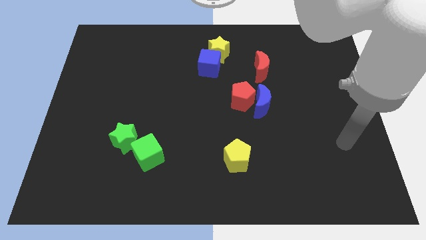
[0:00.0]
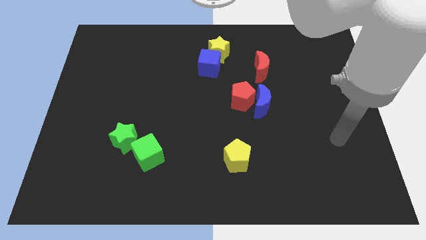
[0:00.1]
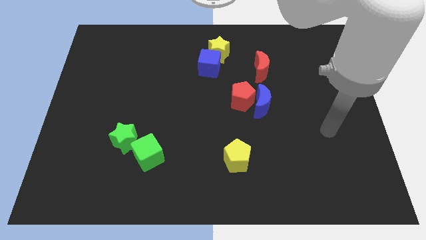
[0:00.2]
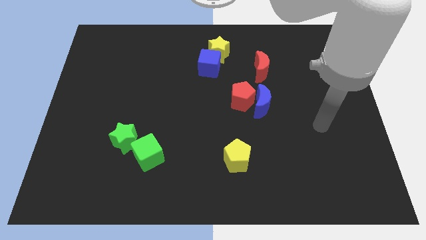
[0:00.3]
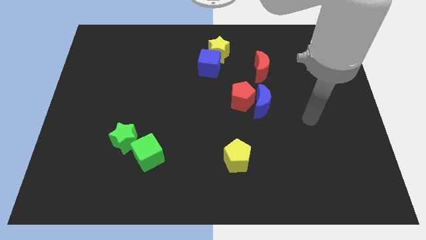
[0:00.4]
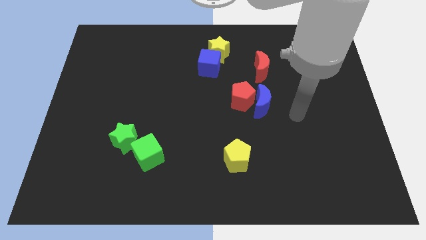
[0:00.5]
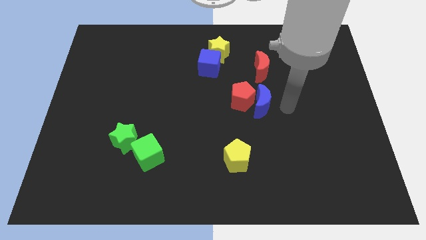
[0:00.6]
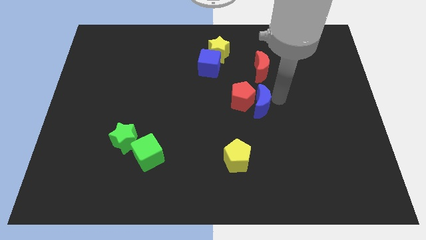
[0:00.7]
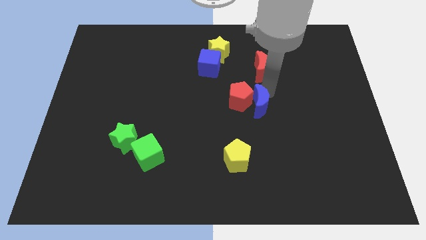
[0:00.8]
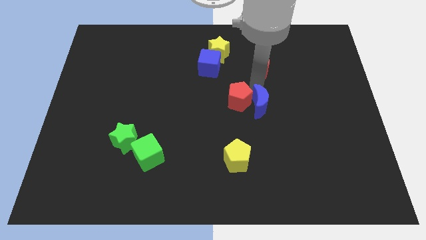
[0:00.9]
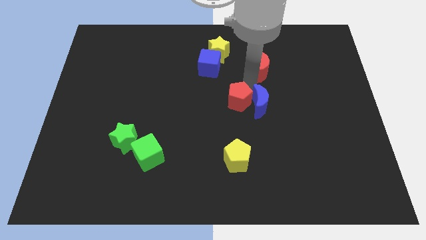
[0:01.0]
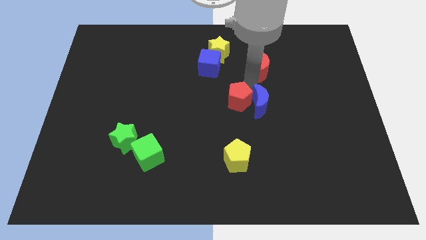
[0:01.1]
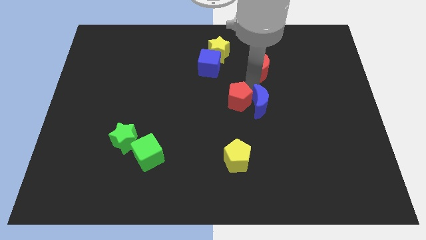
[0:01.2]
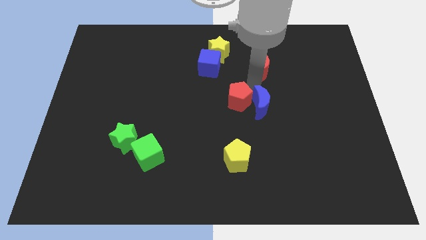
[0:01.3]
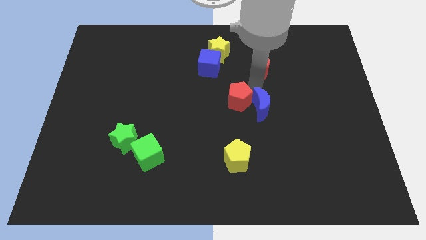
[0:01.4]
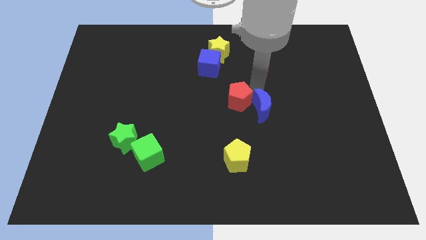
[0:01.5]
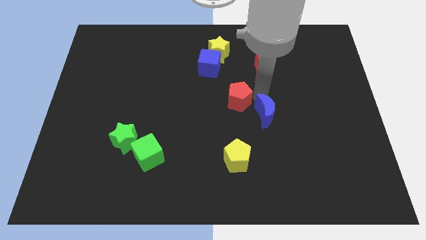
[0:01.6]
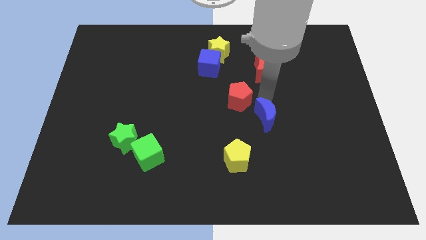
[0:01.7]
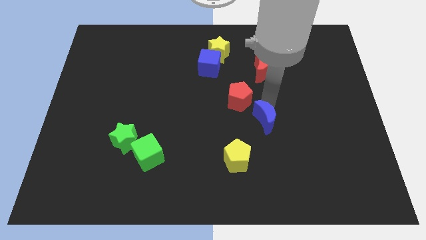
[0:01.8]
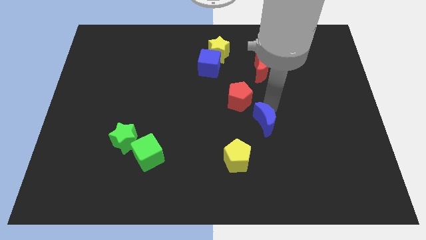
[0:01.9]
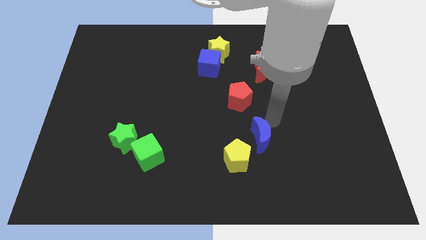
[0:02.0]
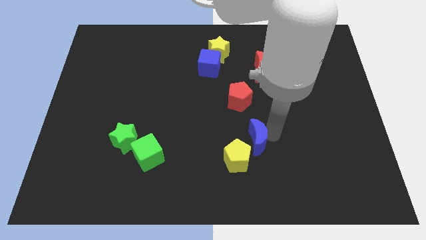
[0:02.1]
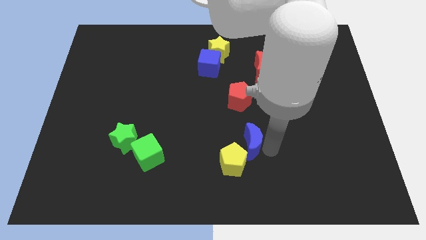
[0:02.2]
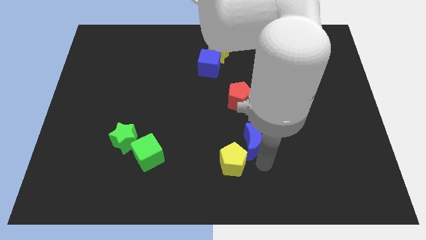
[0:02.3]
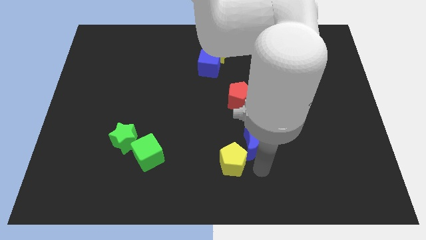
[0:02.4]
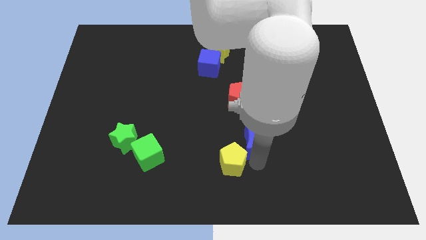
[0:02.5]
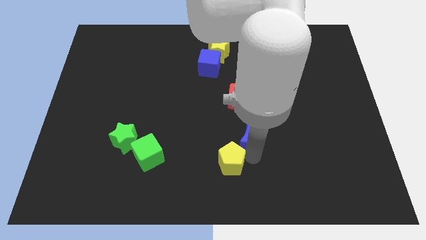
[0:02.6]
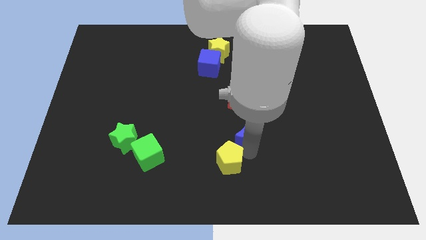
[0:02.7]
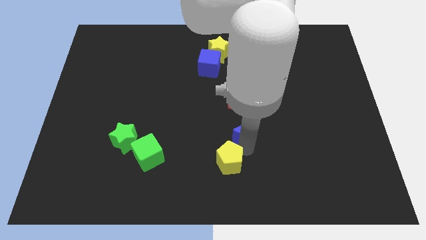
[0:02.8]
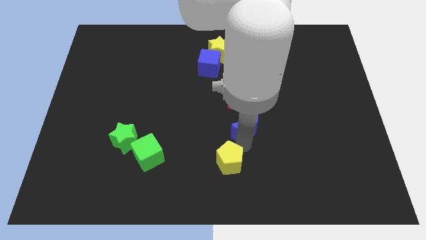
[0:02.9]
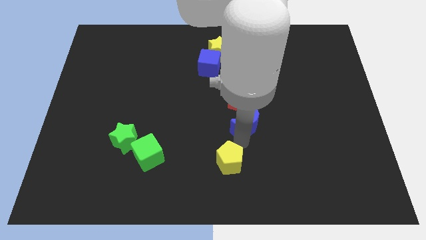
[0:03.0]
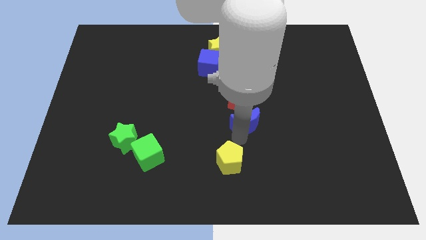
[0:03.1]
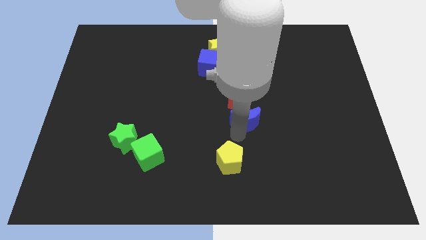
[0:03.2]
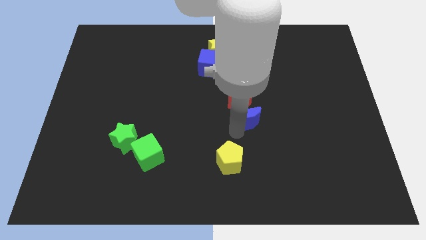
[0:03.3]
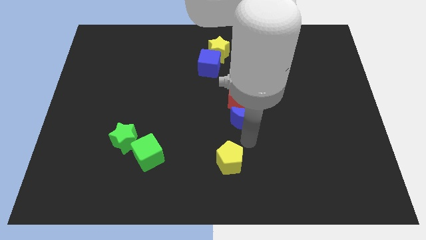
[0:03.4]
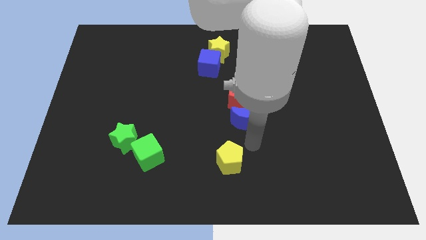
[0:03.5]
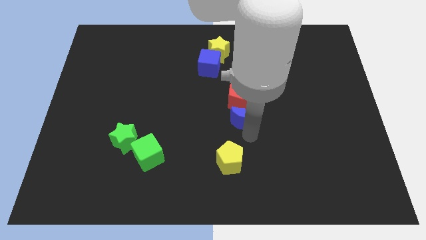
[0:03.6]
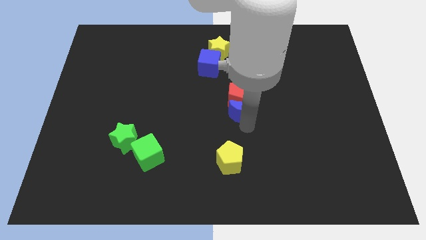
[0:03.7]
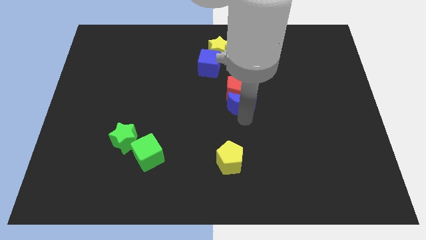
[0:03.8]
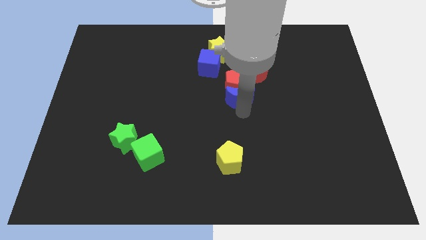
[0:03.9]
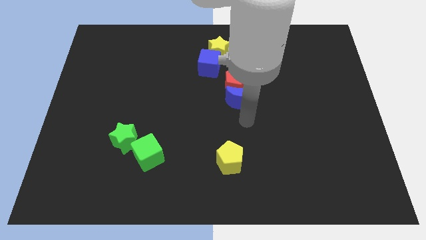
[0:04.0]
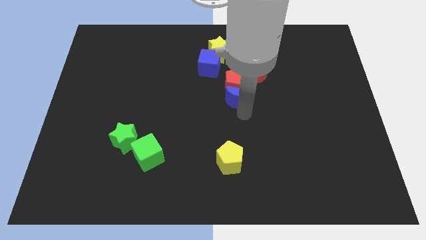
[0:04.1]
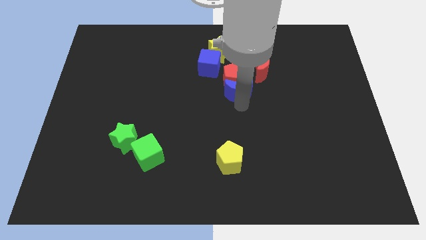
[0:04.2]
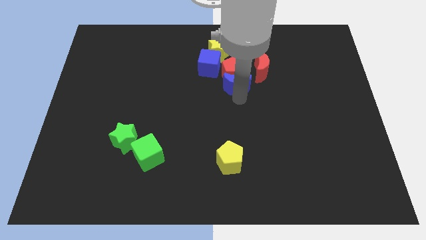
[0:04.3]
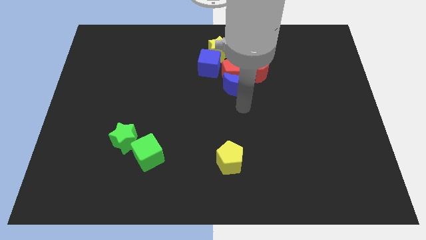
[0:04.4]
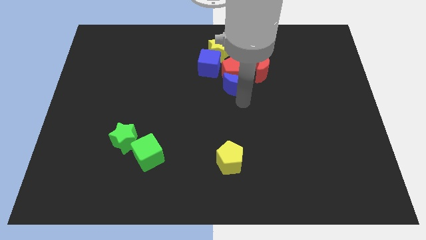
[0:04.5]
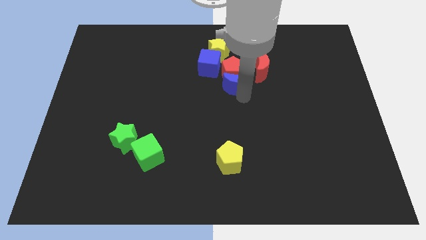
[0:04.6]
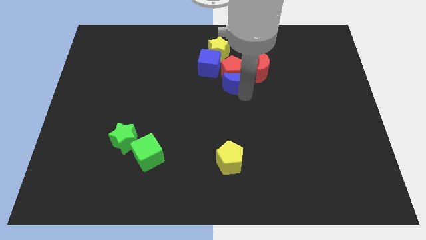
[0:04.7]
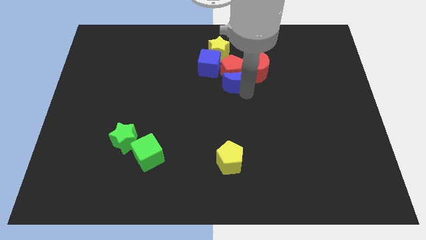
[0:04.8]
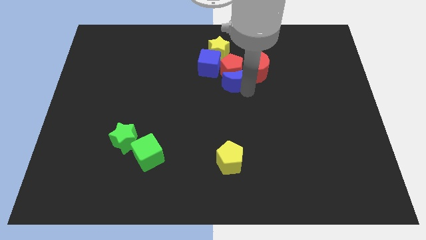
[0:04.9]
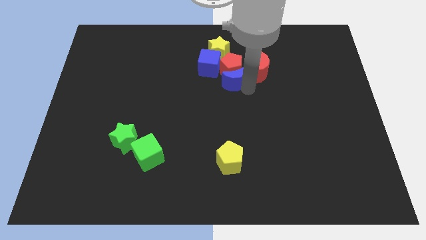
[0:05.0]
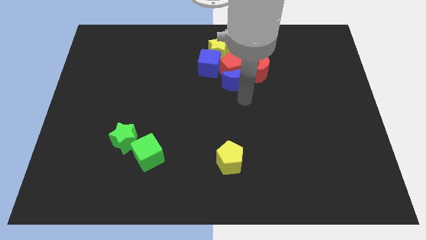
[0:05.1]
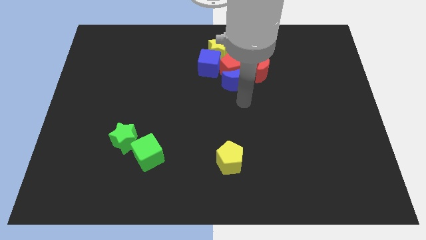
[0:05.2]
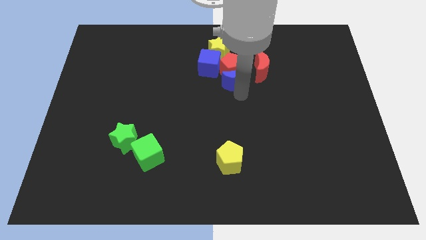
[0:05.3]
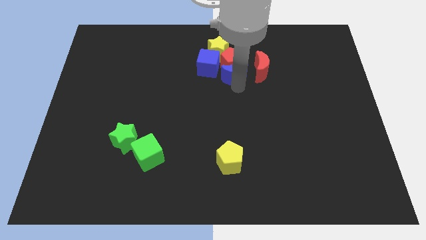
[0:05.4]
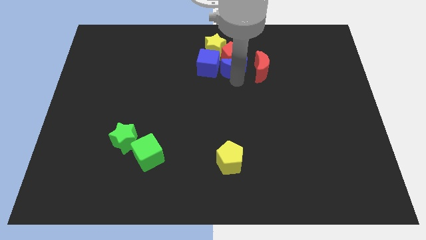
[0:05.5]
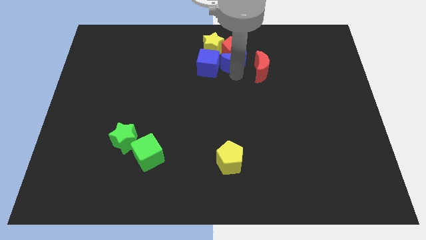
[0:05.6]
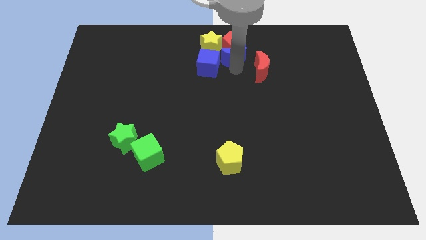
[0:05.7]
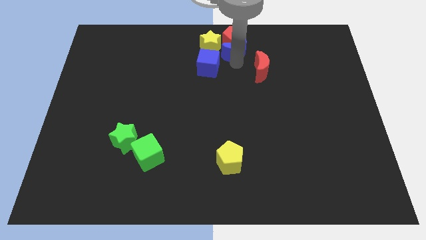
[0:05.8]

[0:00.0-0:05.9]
push the blue moon to the top
